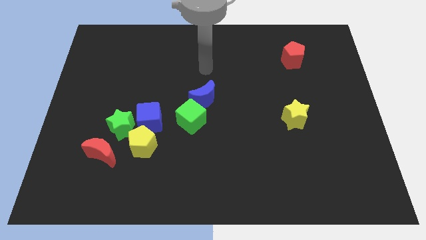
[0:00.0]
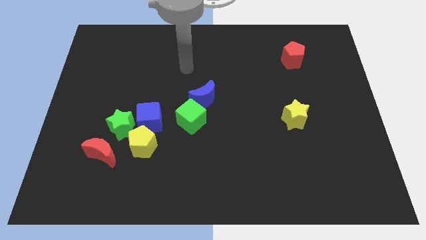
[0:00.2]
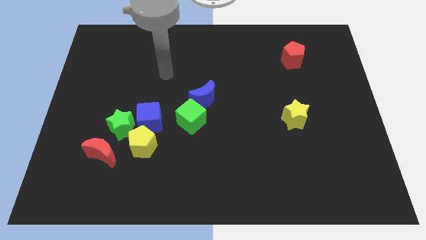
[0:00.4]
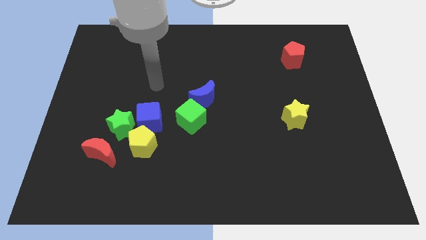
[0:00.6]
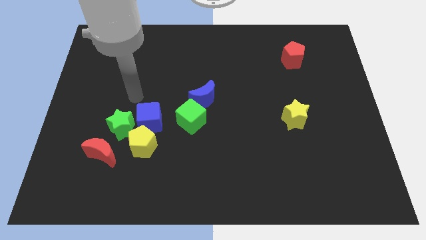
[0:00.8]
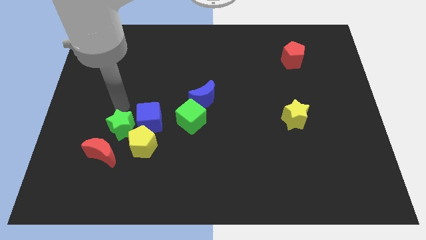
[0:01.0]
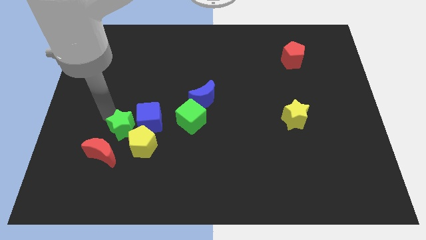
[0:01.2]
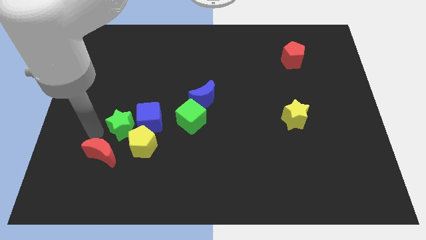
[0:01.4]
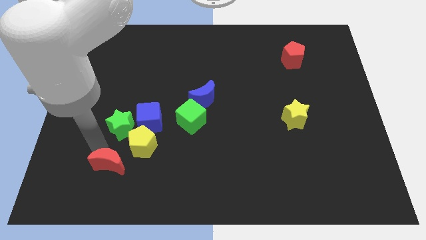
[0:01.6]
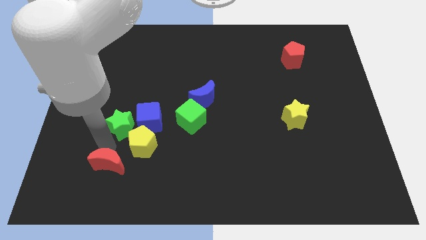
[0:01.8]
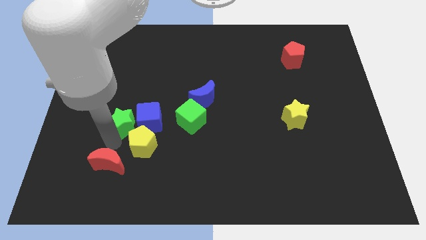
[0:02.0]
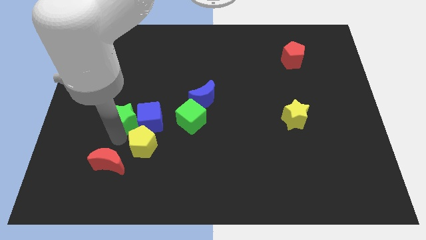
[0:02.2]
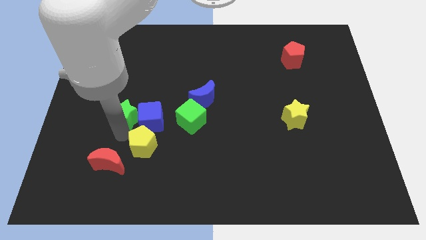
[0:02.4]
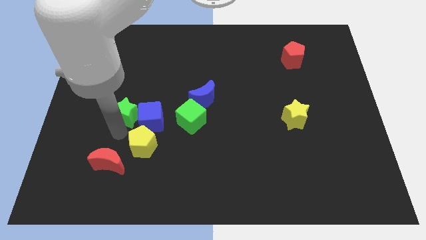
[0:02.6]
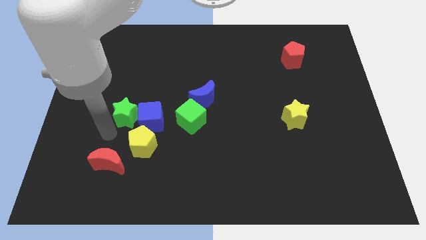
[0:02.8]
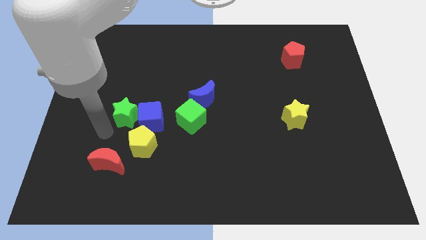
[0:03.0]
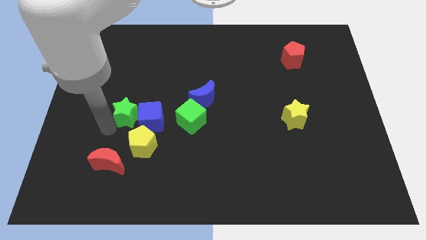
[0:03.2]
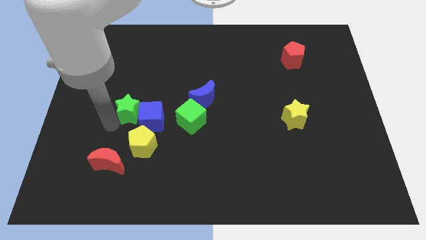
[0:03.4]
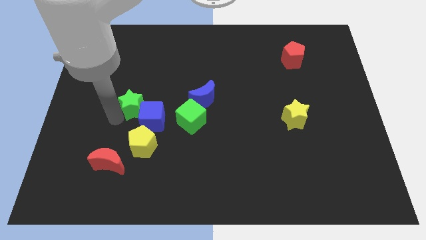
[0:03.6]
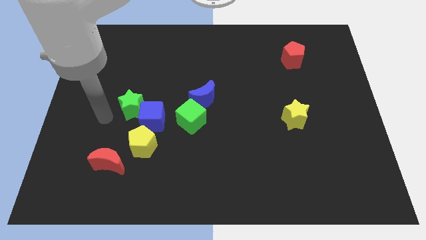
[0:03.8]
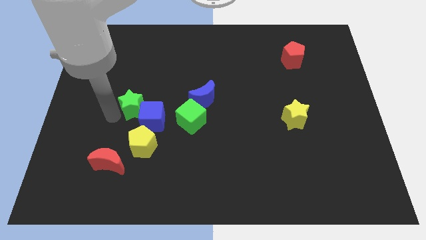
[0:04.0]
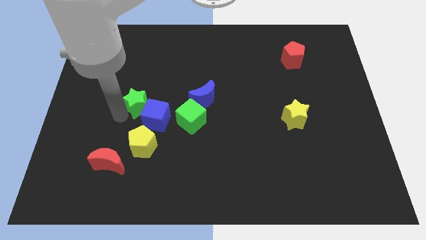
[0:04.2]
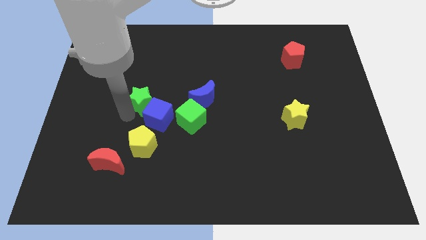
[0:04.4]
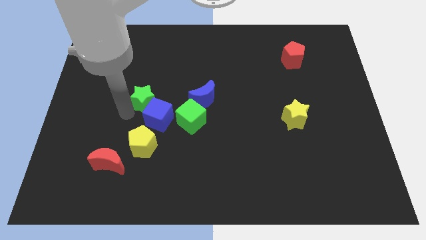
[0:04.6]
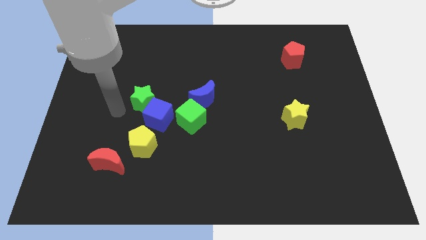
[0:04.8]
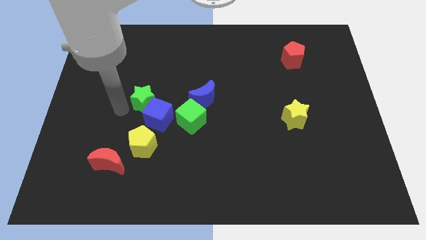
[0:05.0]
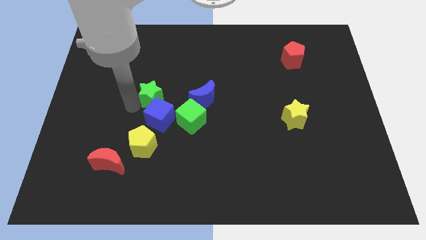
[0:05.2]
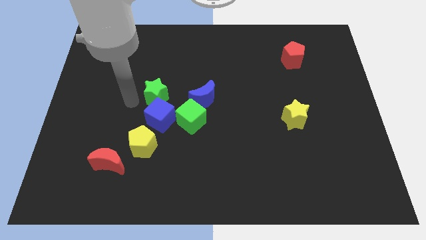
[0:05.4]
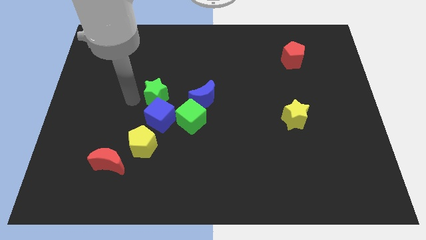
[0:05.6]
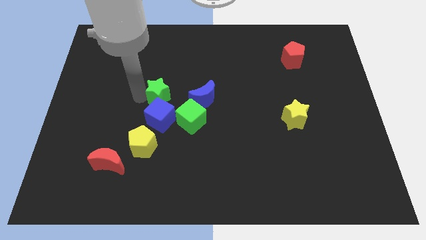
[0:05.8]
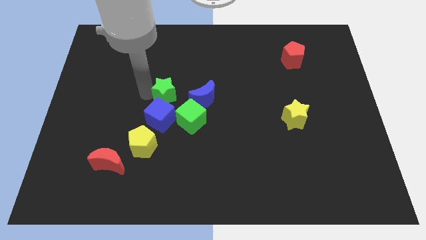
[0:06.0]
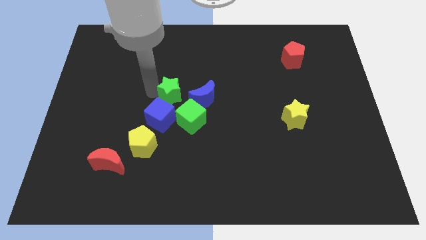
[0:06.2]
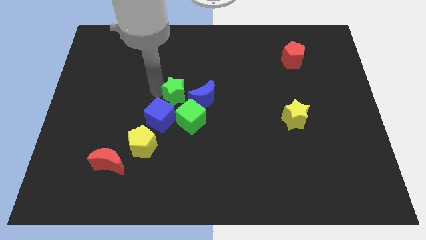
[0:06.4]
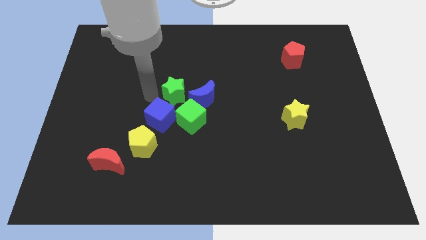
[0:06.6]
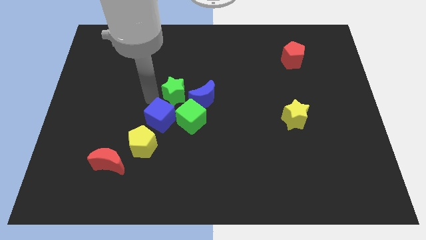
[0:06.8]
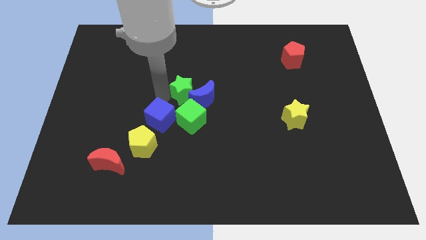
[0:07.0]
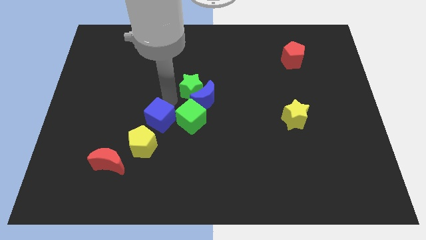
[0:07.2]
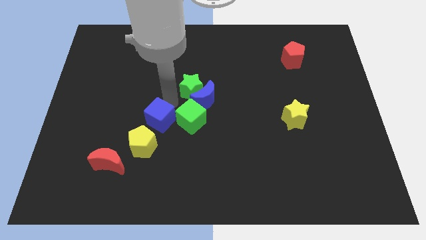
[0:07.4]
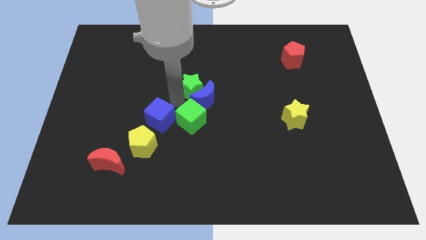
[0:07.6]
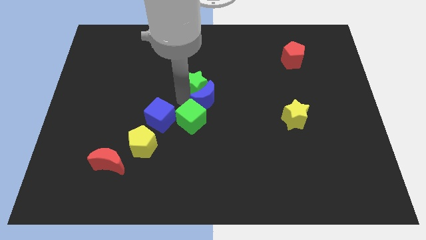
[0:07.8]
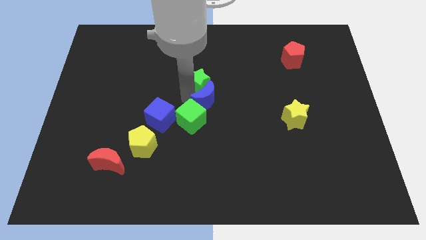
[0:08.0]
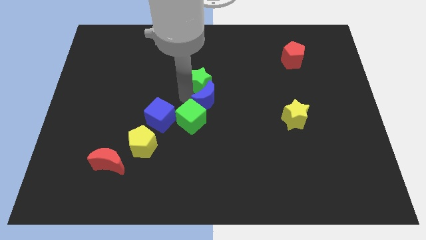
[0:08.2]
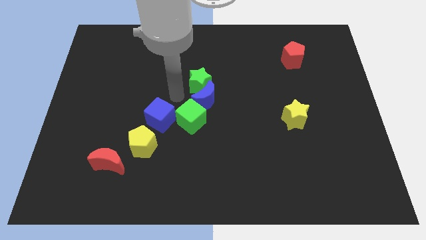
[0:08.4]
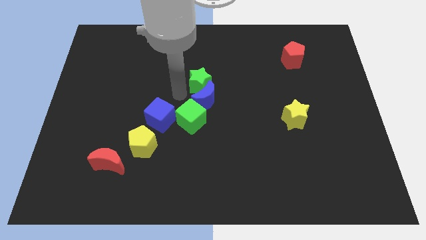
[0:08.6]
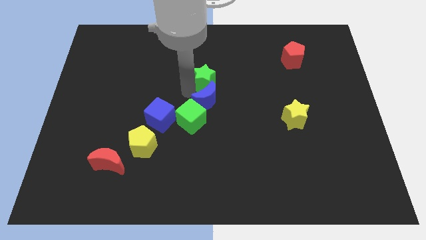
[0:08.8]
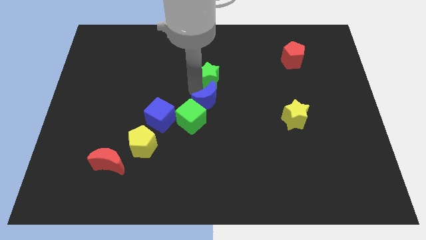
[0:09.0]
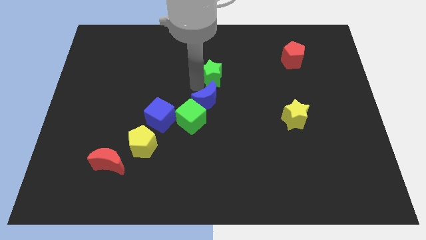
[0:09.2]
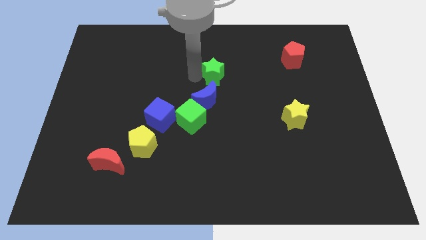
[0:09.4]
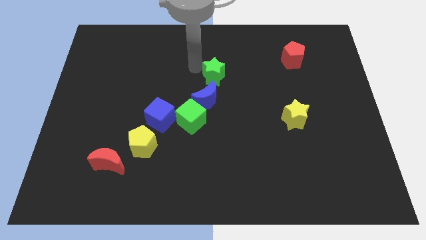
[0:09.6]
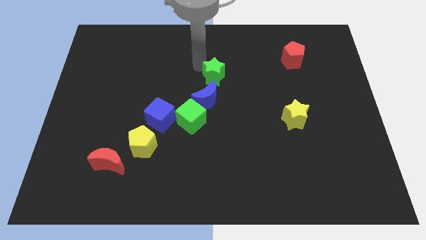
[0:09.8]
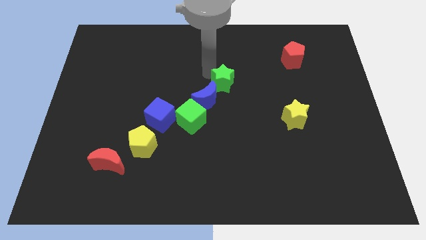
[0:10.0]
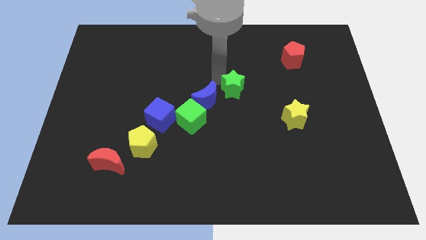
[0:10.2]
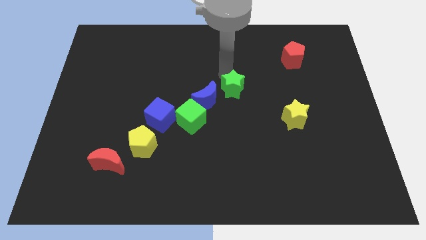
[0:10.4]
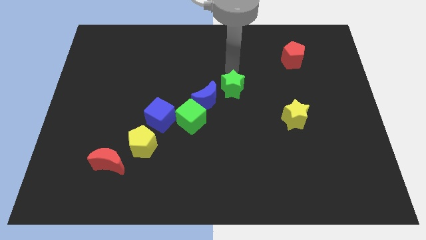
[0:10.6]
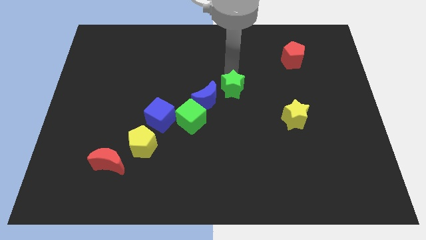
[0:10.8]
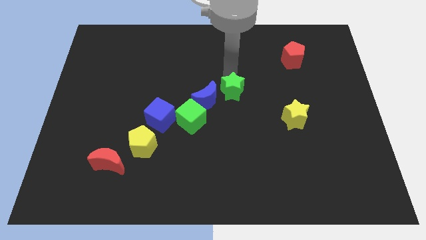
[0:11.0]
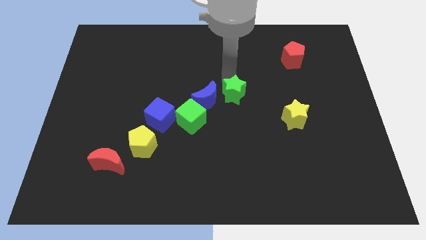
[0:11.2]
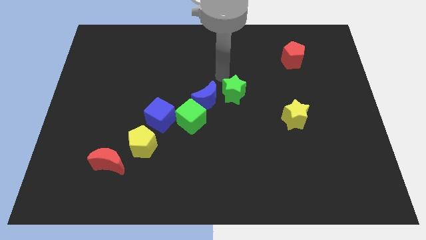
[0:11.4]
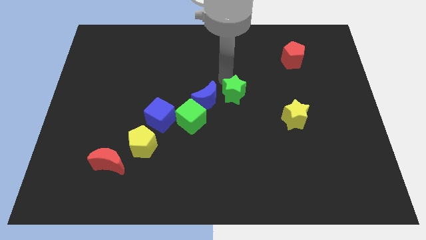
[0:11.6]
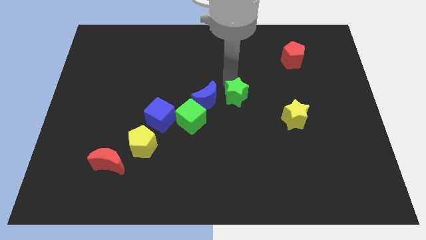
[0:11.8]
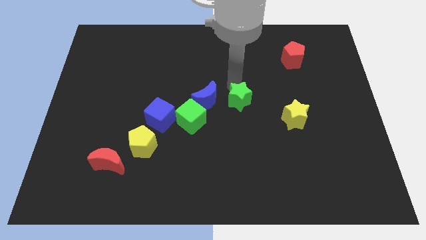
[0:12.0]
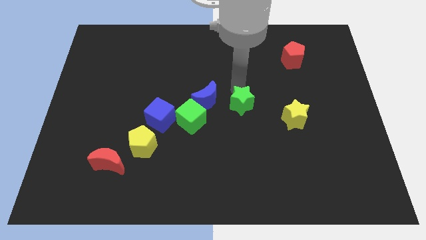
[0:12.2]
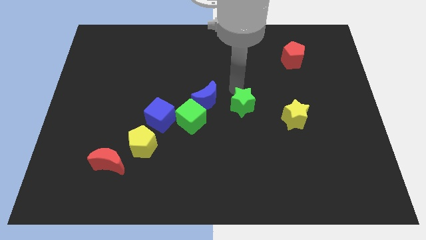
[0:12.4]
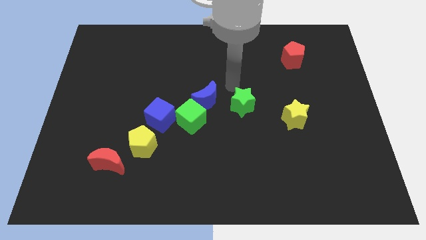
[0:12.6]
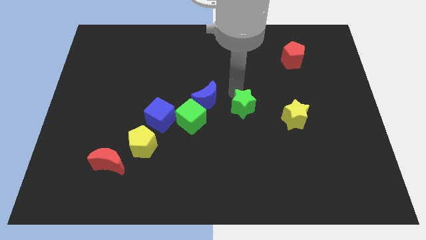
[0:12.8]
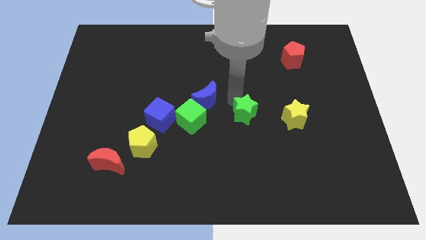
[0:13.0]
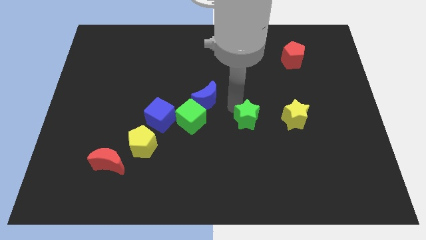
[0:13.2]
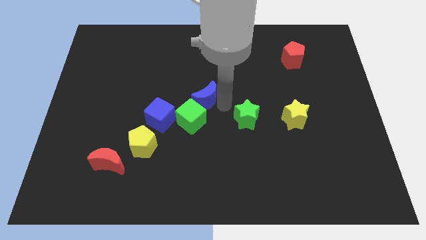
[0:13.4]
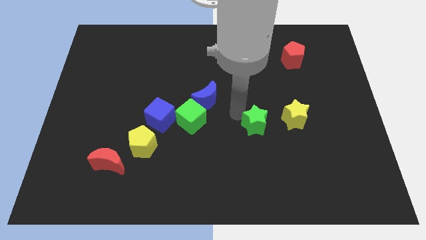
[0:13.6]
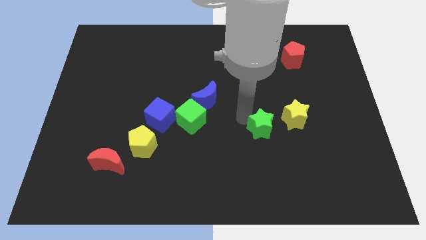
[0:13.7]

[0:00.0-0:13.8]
move the green star diagonally down and to the left of the yellow star
